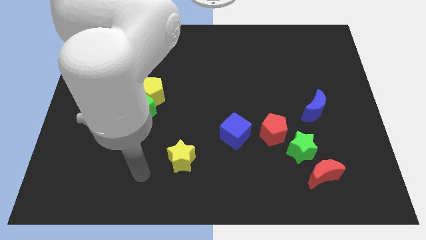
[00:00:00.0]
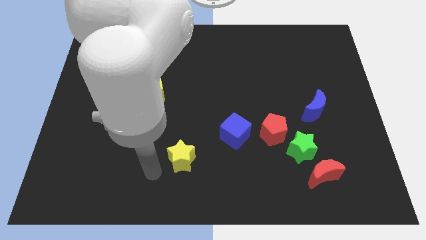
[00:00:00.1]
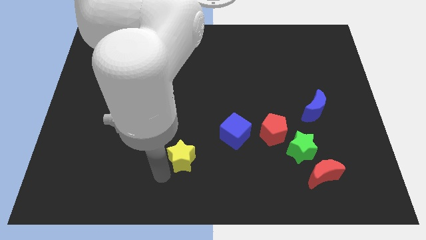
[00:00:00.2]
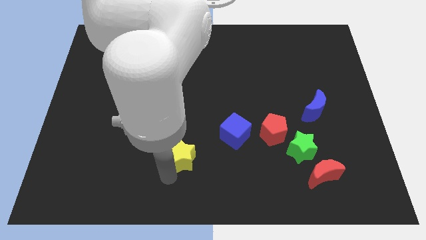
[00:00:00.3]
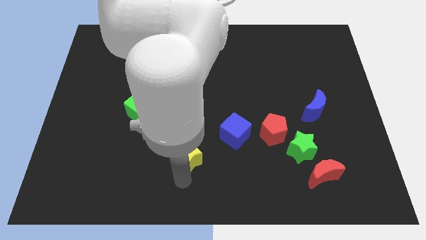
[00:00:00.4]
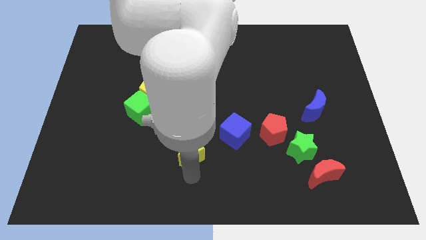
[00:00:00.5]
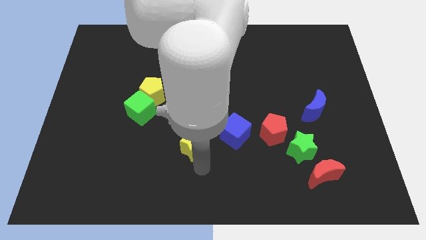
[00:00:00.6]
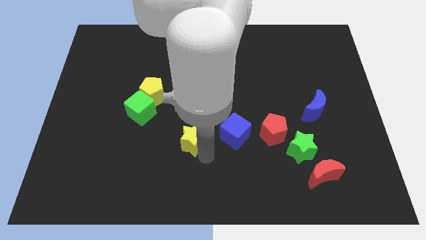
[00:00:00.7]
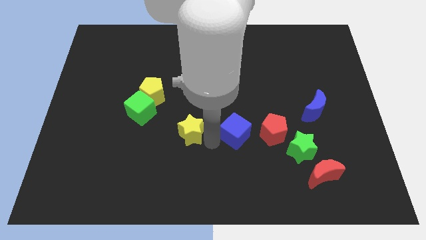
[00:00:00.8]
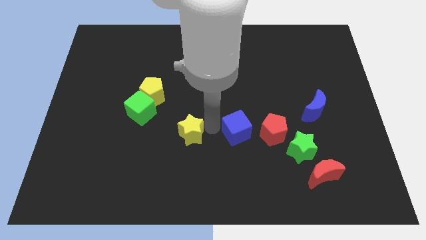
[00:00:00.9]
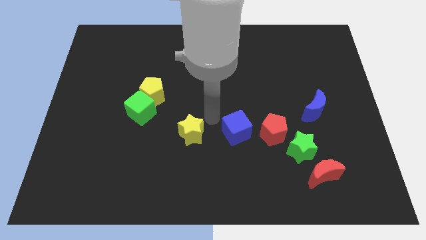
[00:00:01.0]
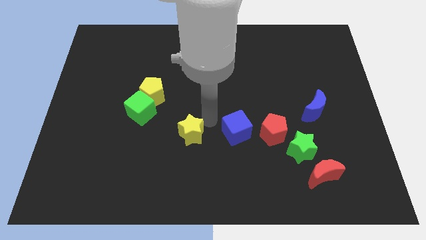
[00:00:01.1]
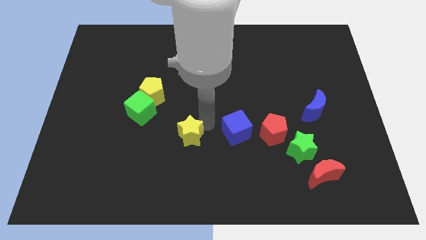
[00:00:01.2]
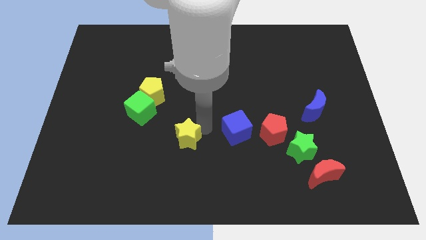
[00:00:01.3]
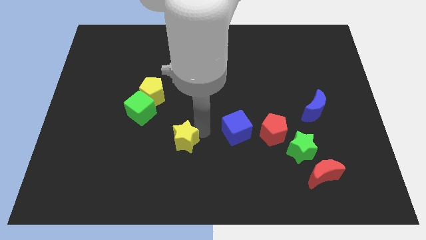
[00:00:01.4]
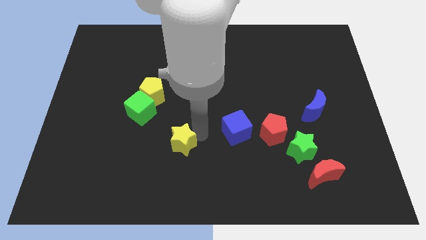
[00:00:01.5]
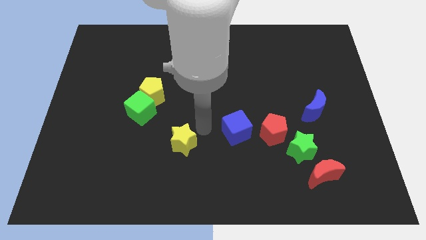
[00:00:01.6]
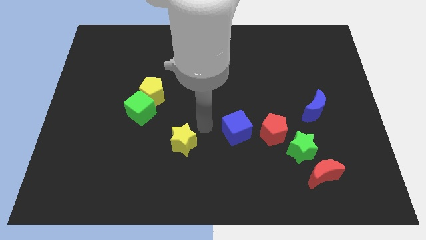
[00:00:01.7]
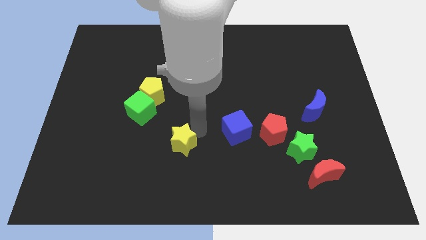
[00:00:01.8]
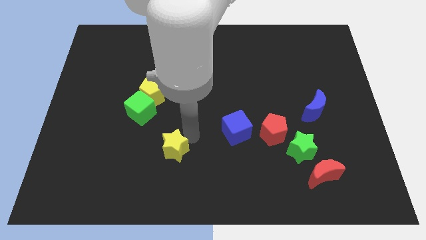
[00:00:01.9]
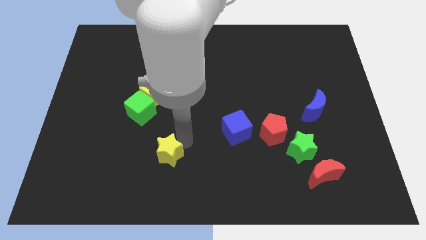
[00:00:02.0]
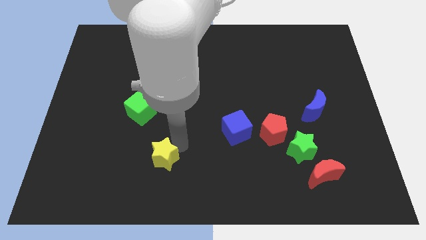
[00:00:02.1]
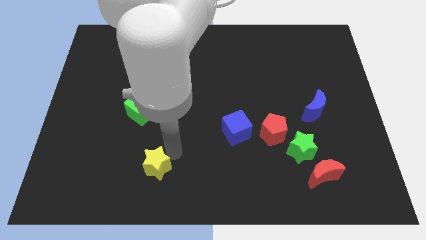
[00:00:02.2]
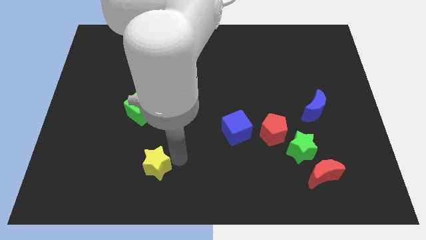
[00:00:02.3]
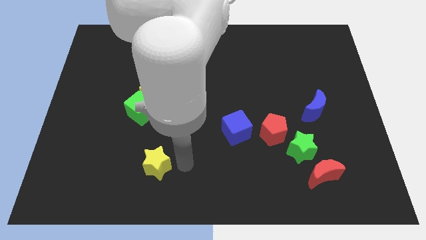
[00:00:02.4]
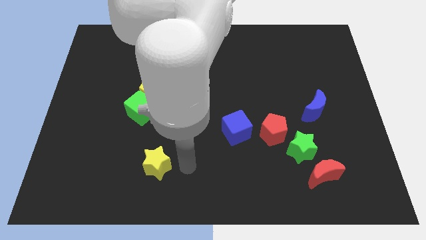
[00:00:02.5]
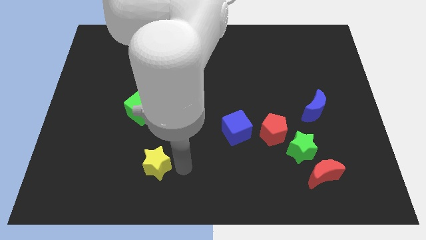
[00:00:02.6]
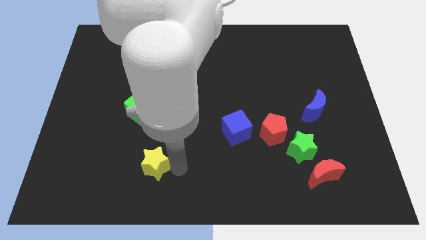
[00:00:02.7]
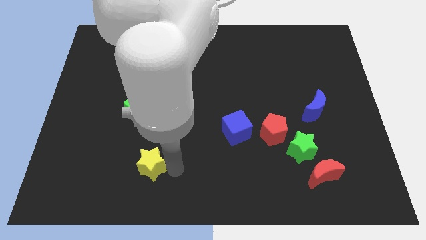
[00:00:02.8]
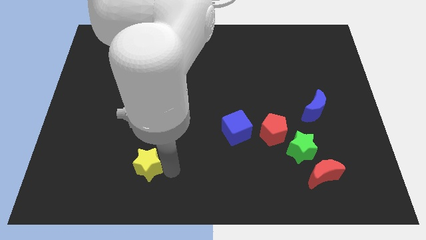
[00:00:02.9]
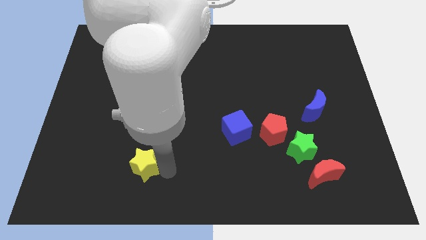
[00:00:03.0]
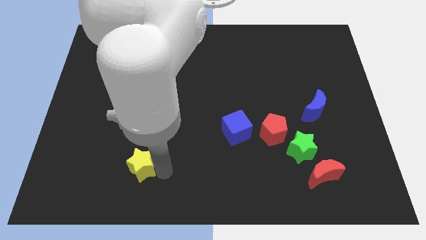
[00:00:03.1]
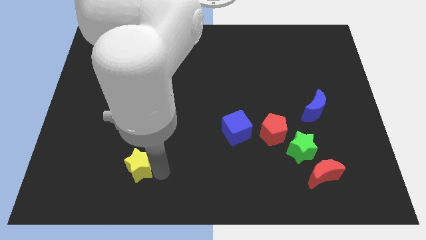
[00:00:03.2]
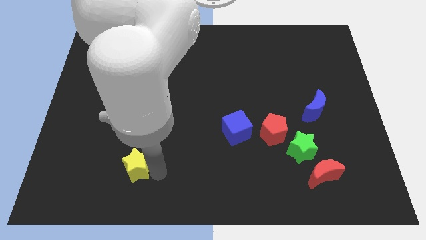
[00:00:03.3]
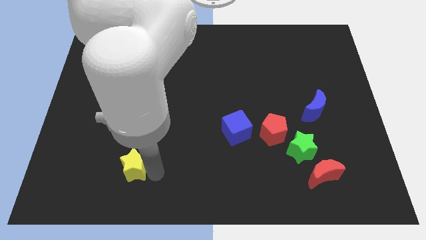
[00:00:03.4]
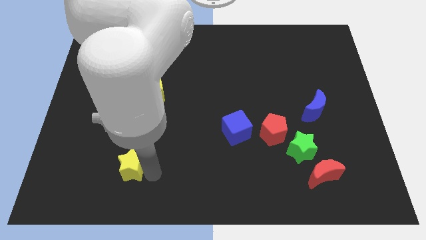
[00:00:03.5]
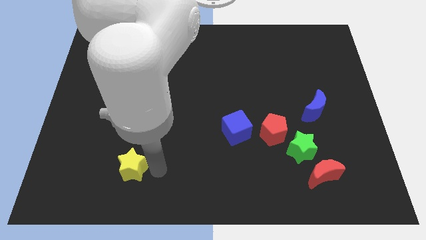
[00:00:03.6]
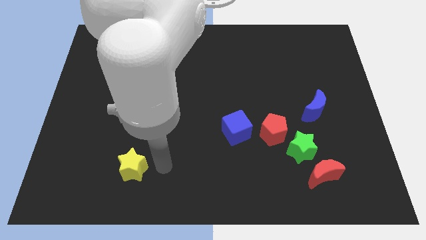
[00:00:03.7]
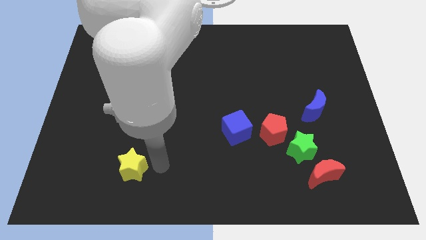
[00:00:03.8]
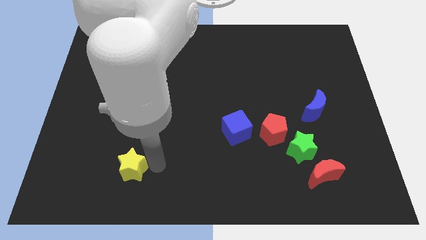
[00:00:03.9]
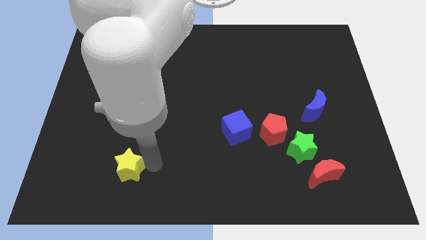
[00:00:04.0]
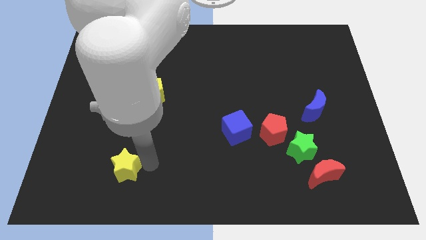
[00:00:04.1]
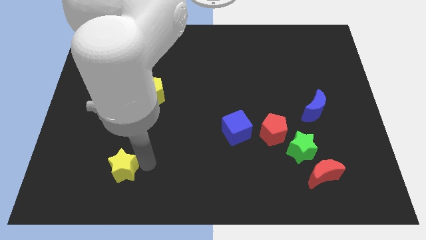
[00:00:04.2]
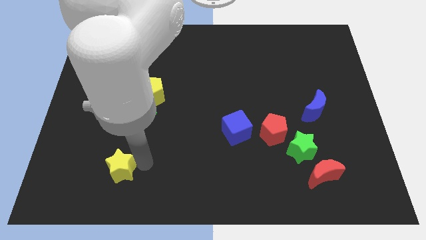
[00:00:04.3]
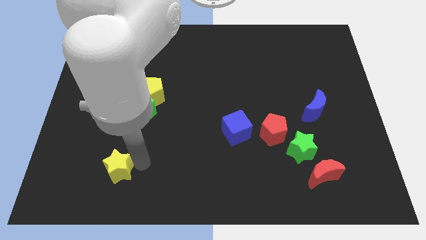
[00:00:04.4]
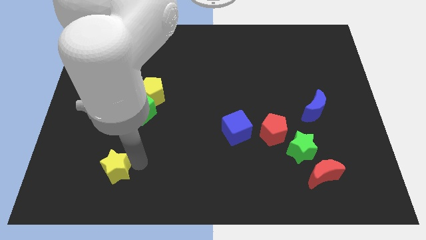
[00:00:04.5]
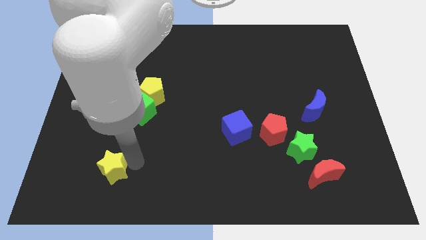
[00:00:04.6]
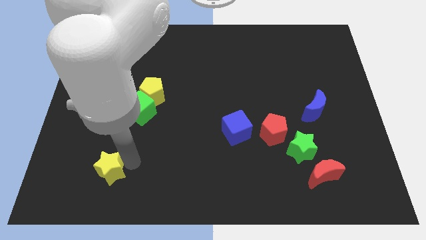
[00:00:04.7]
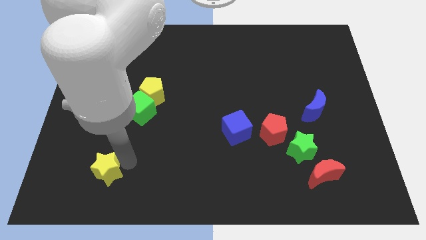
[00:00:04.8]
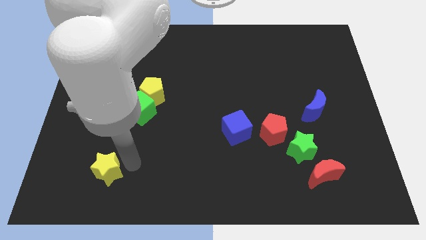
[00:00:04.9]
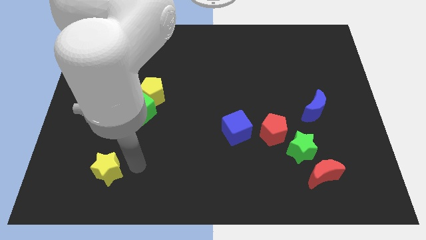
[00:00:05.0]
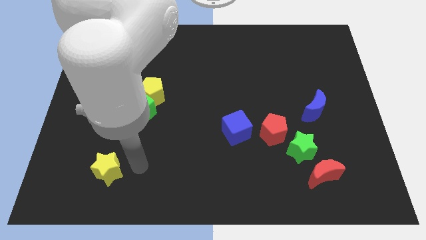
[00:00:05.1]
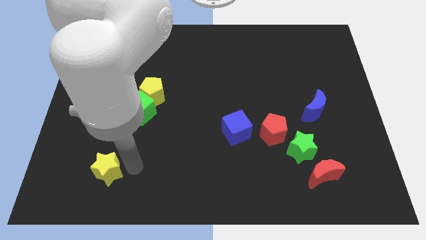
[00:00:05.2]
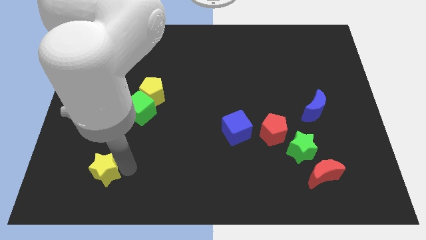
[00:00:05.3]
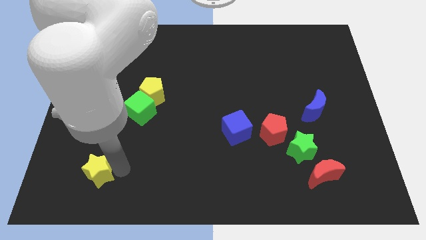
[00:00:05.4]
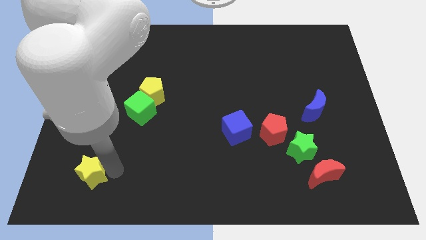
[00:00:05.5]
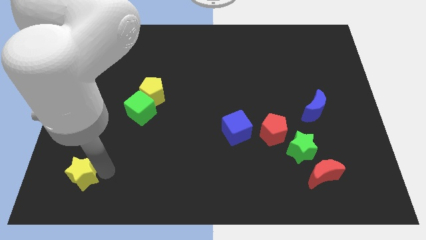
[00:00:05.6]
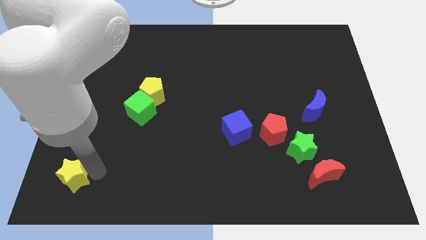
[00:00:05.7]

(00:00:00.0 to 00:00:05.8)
push the yellow star to the lower left corner
